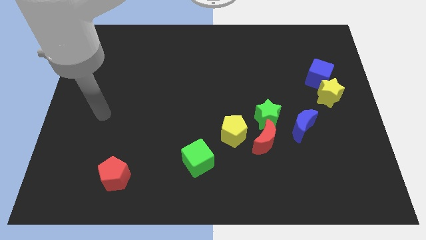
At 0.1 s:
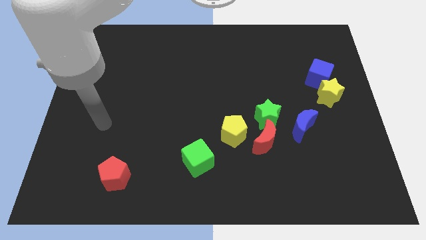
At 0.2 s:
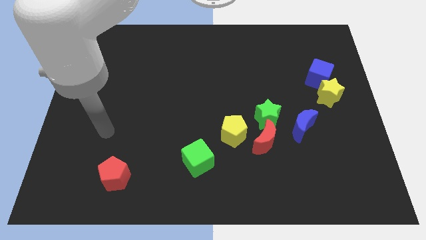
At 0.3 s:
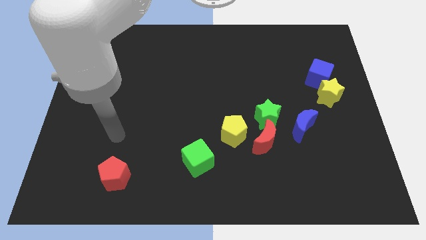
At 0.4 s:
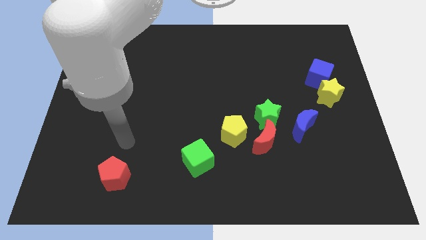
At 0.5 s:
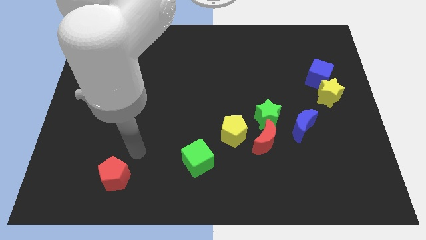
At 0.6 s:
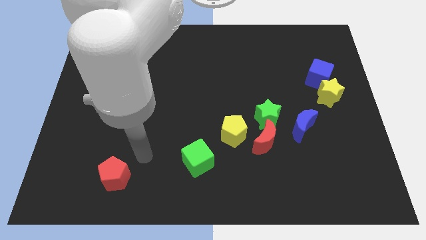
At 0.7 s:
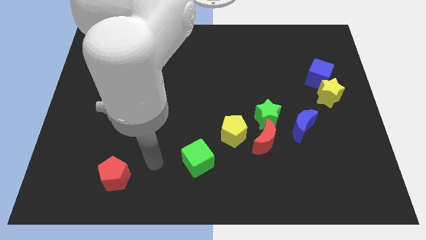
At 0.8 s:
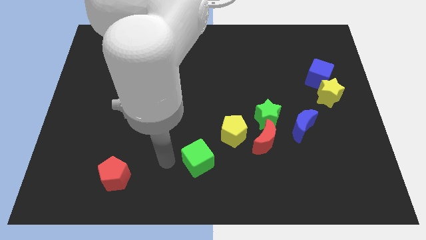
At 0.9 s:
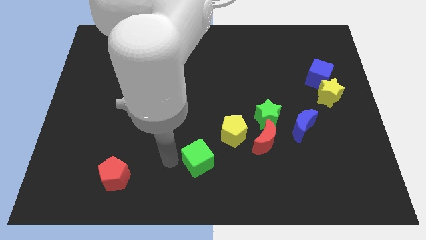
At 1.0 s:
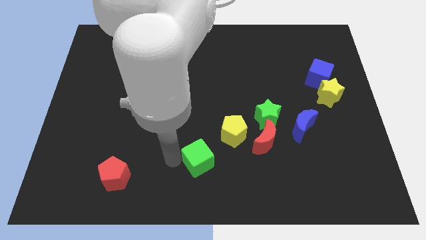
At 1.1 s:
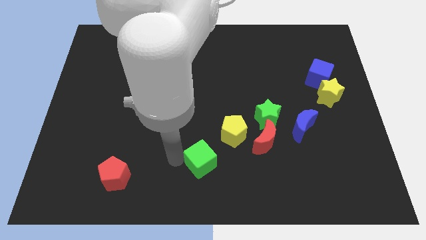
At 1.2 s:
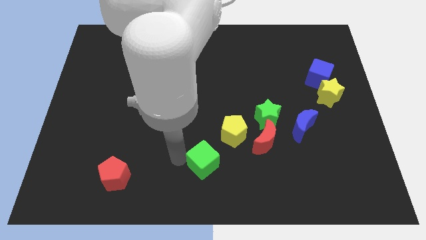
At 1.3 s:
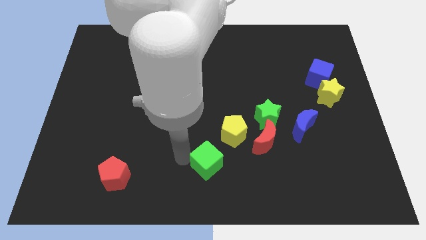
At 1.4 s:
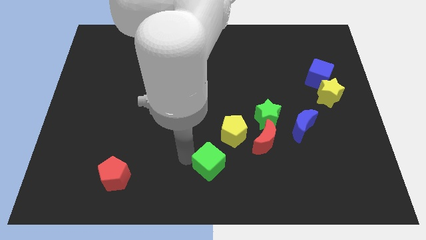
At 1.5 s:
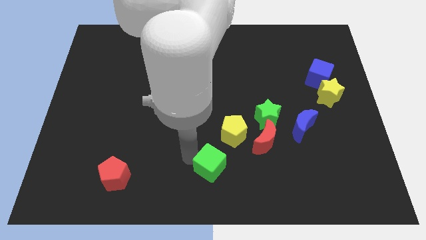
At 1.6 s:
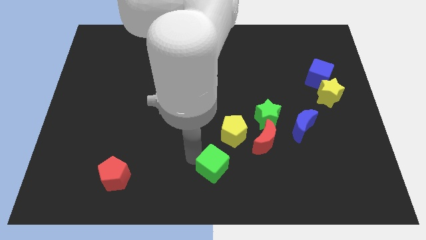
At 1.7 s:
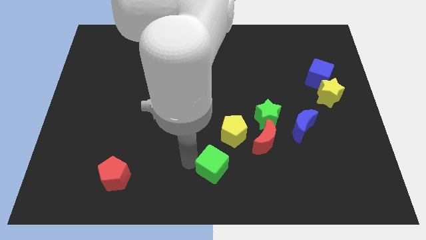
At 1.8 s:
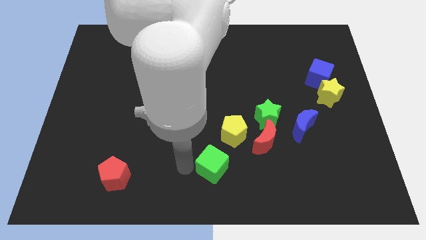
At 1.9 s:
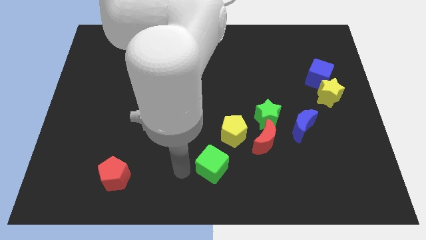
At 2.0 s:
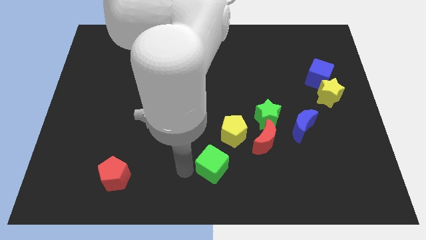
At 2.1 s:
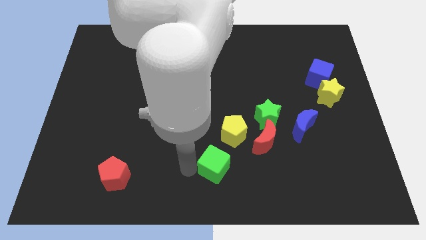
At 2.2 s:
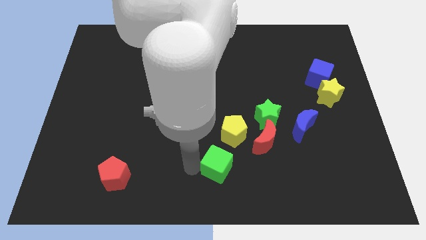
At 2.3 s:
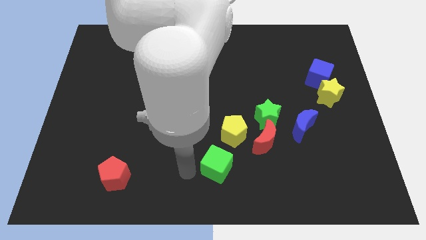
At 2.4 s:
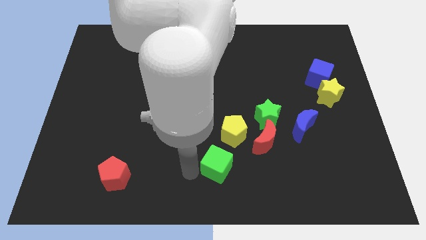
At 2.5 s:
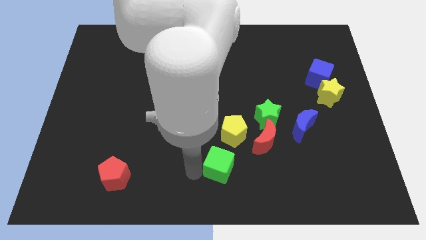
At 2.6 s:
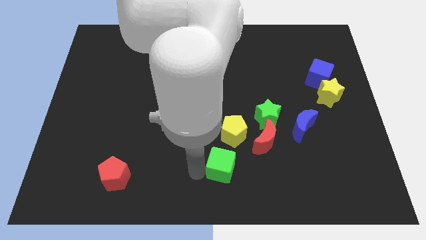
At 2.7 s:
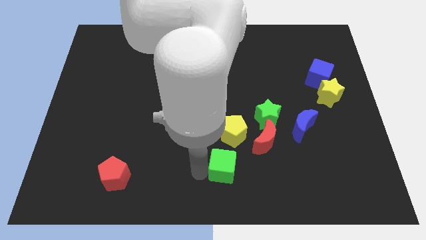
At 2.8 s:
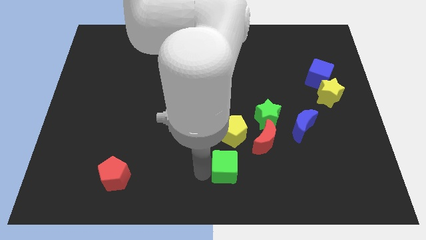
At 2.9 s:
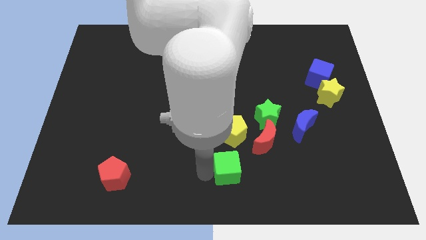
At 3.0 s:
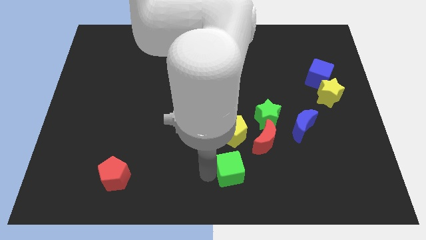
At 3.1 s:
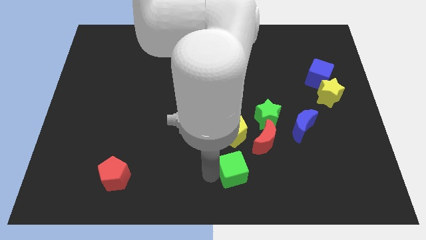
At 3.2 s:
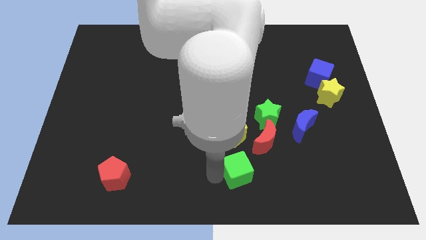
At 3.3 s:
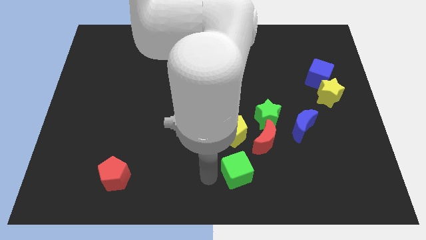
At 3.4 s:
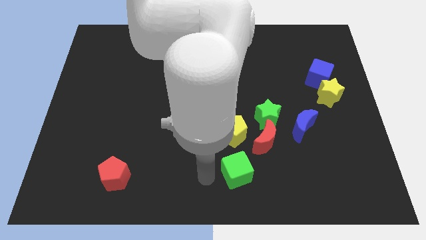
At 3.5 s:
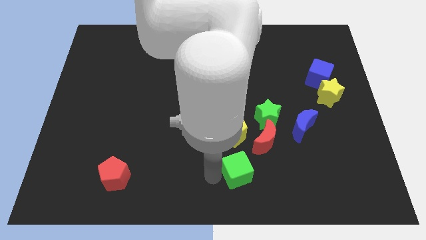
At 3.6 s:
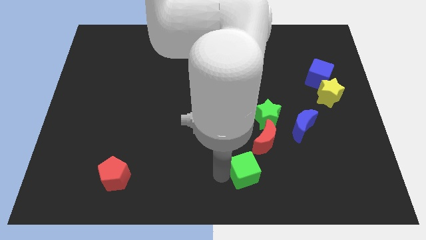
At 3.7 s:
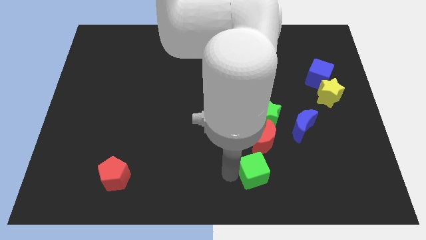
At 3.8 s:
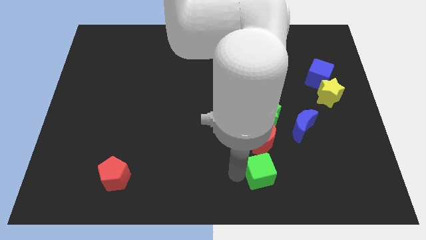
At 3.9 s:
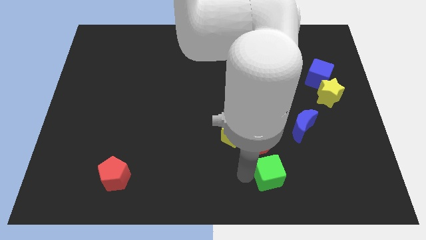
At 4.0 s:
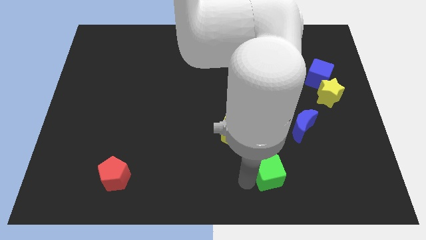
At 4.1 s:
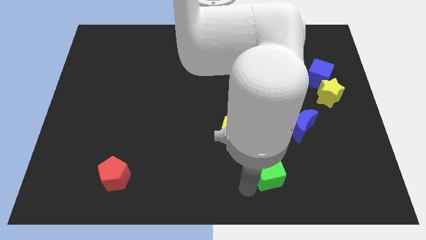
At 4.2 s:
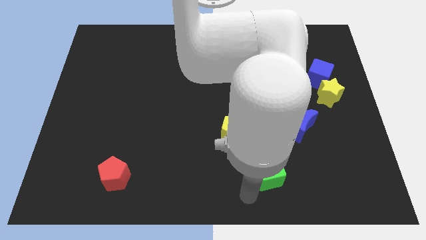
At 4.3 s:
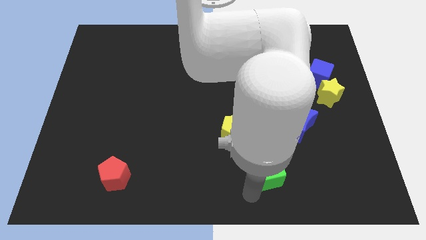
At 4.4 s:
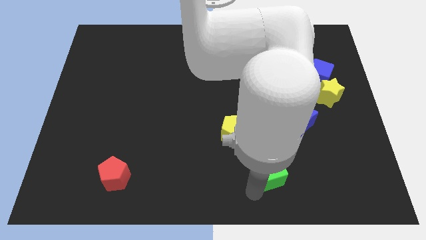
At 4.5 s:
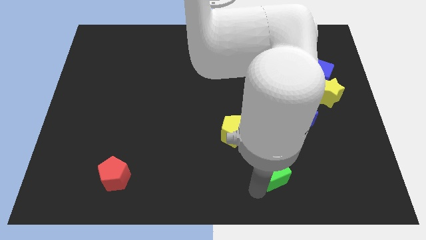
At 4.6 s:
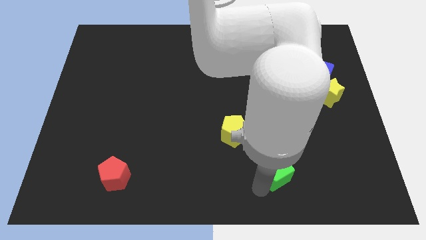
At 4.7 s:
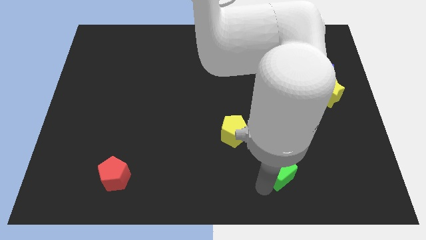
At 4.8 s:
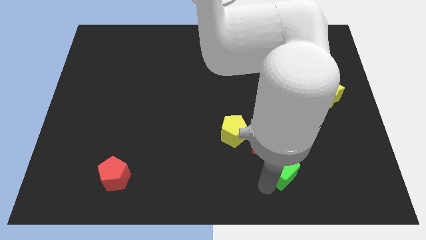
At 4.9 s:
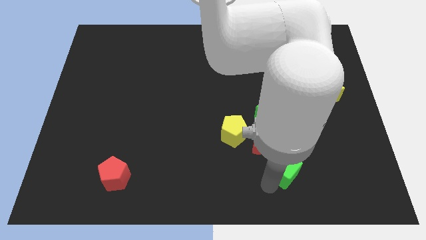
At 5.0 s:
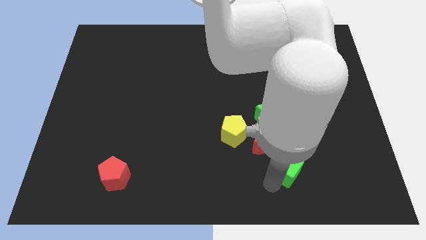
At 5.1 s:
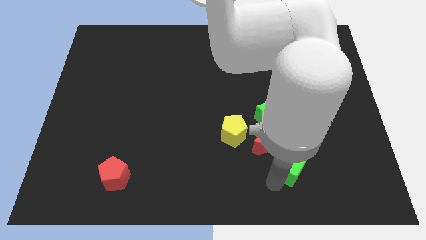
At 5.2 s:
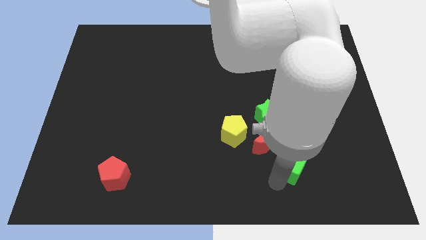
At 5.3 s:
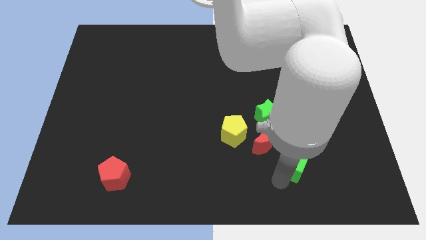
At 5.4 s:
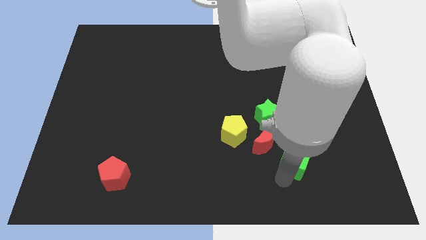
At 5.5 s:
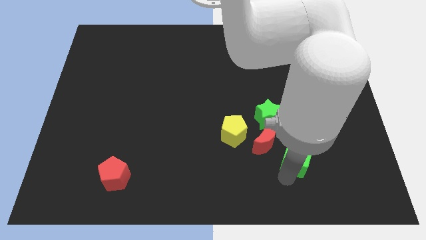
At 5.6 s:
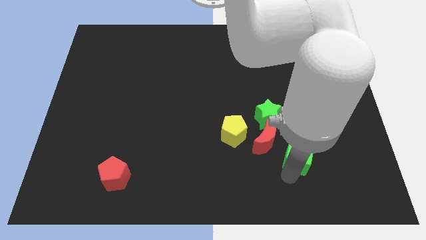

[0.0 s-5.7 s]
move the green cube to the bottom right of the green star

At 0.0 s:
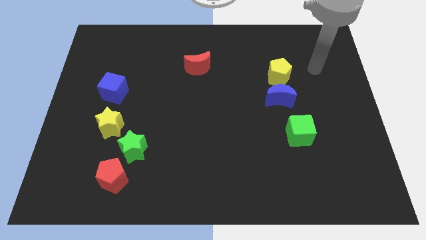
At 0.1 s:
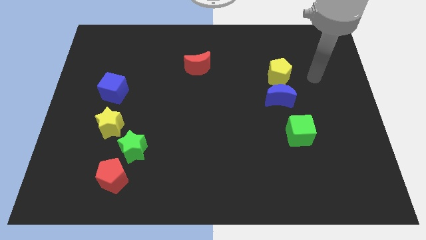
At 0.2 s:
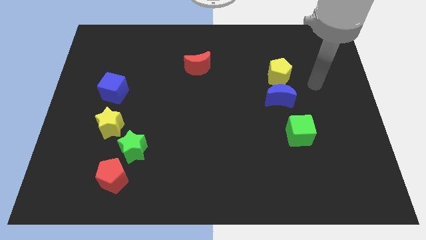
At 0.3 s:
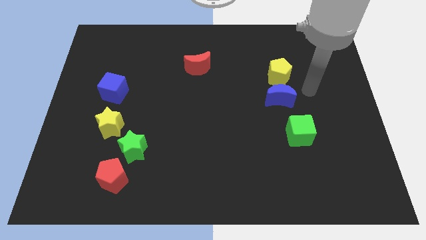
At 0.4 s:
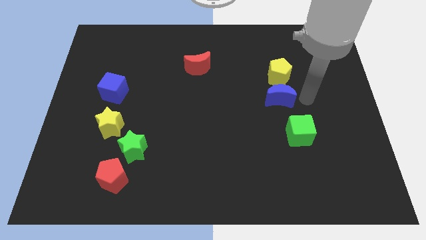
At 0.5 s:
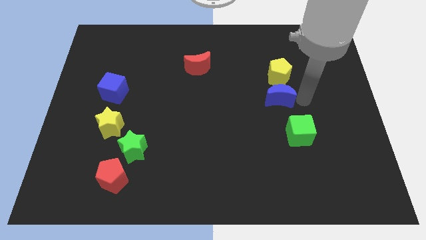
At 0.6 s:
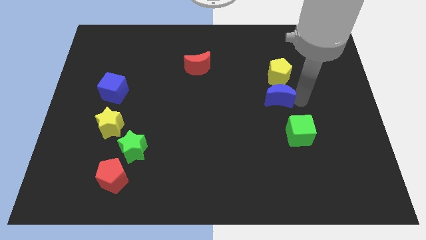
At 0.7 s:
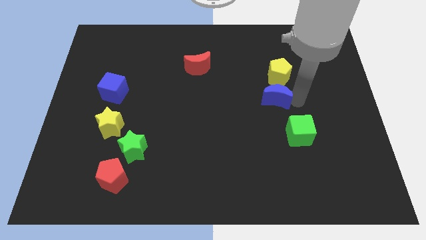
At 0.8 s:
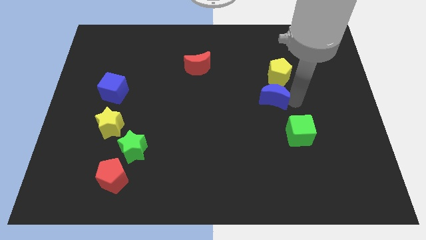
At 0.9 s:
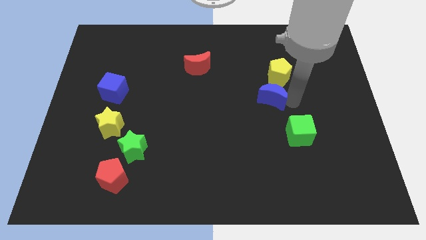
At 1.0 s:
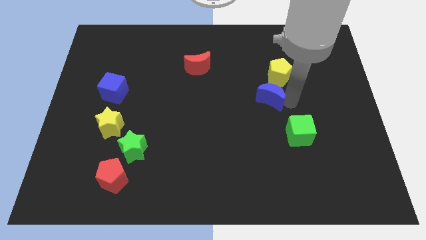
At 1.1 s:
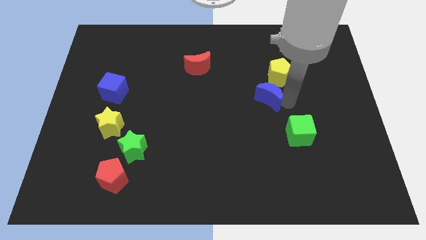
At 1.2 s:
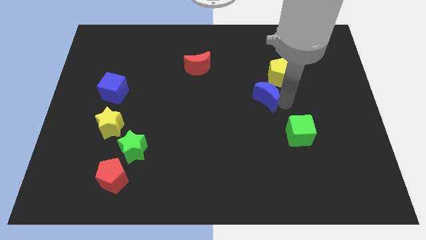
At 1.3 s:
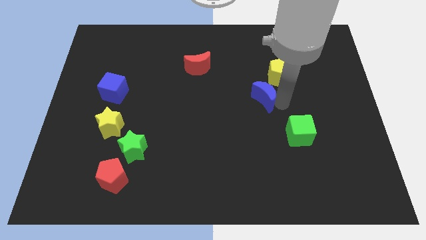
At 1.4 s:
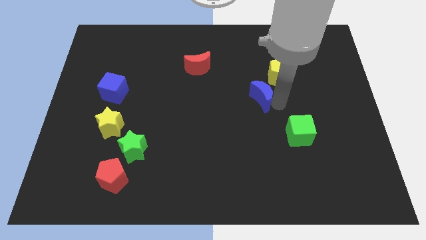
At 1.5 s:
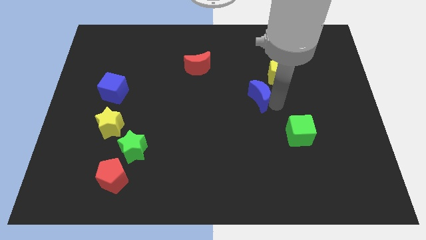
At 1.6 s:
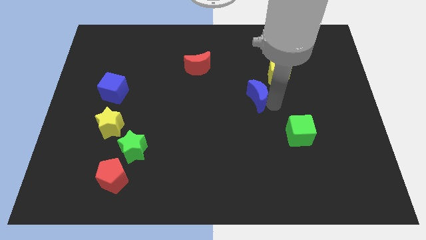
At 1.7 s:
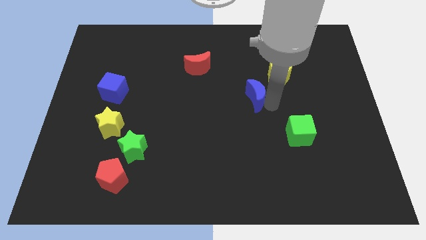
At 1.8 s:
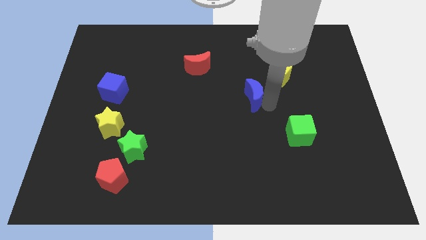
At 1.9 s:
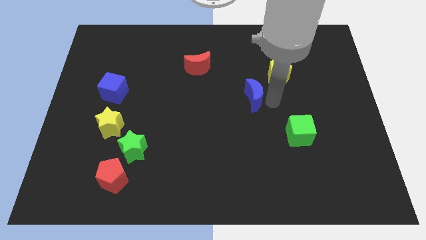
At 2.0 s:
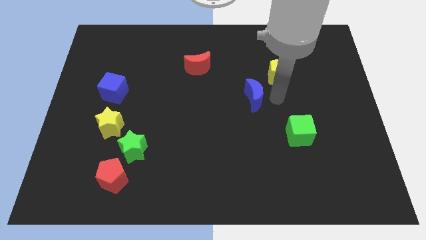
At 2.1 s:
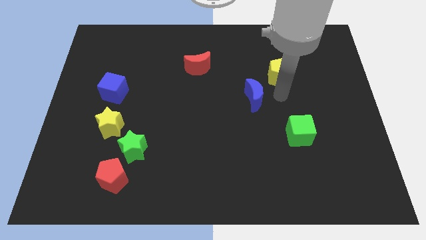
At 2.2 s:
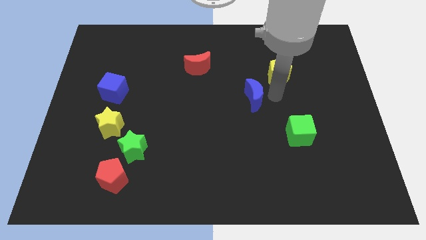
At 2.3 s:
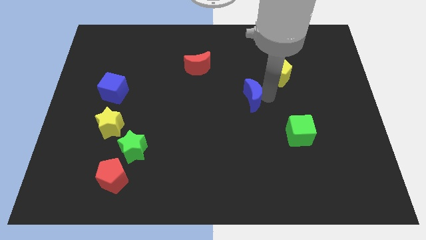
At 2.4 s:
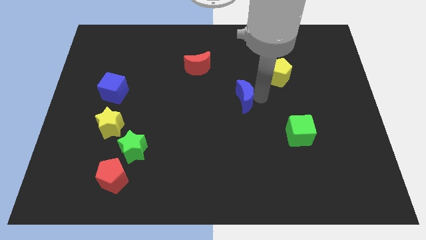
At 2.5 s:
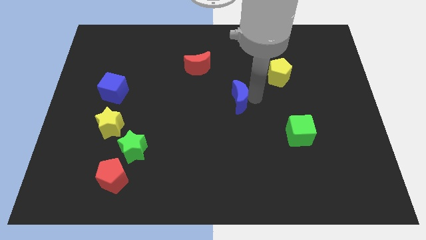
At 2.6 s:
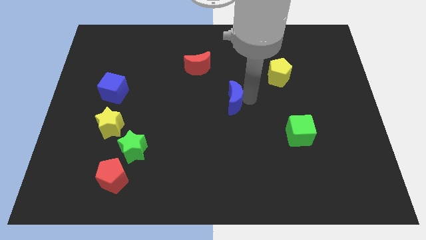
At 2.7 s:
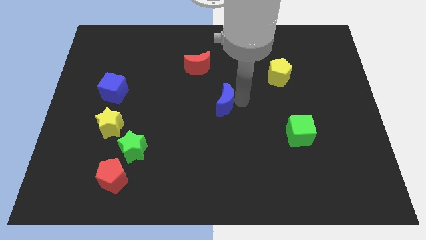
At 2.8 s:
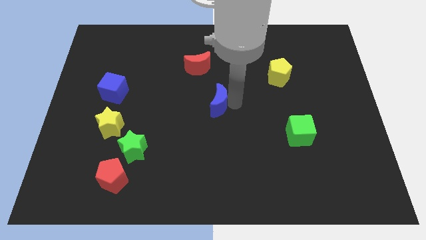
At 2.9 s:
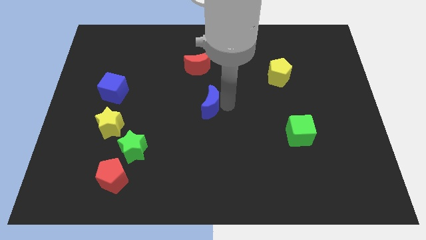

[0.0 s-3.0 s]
move the blue moon below the red moon
